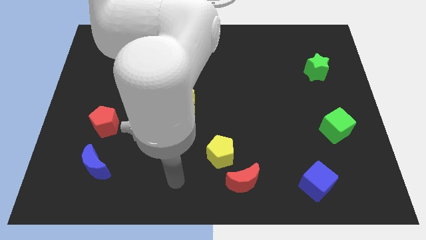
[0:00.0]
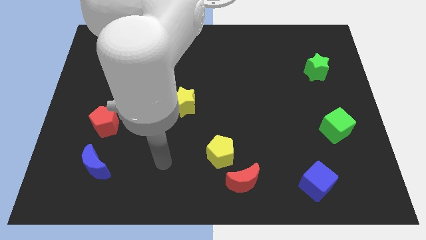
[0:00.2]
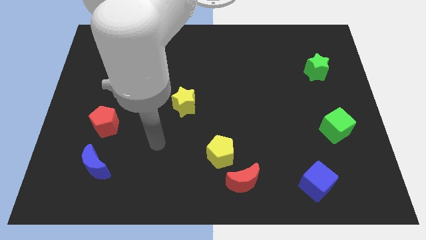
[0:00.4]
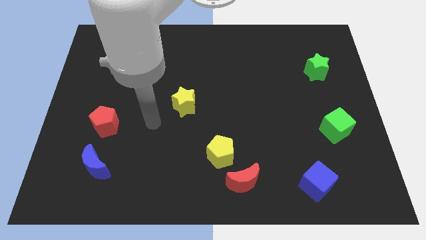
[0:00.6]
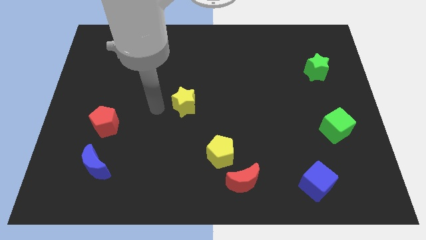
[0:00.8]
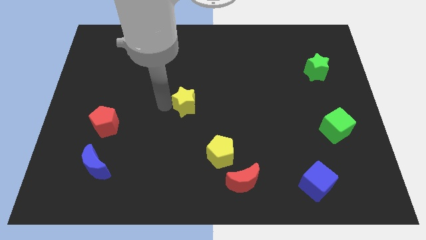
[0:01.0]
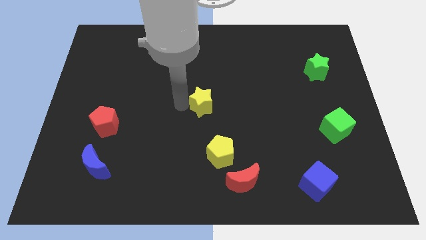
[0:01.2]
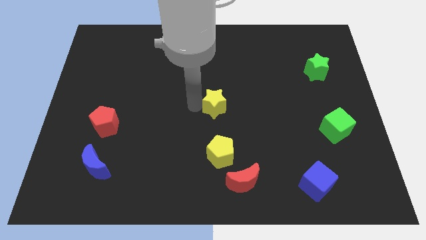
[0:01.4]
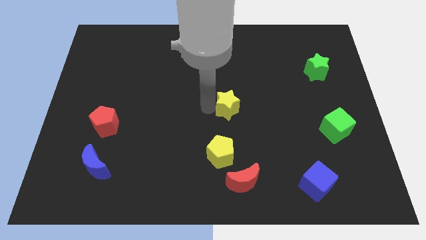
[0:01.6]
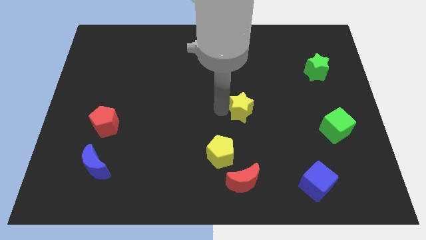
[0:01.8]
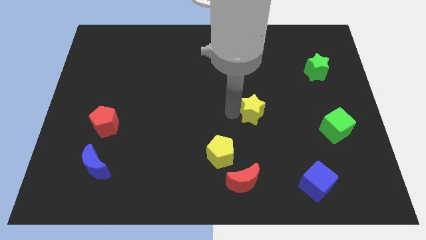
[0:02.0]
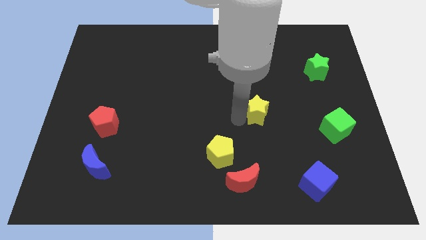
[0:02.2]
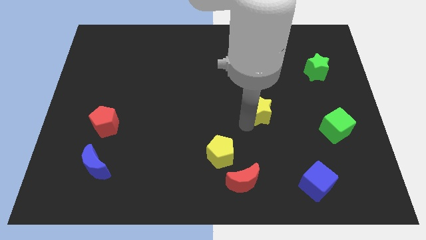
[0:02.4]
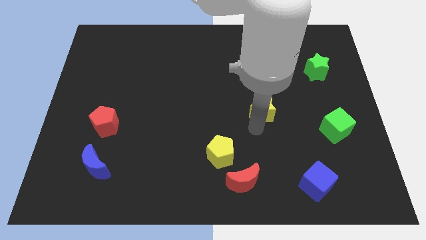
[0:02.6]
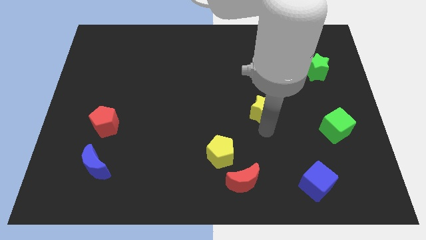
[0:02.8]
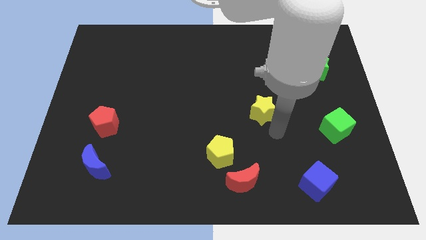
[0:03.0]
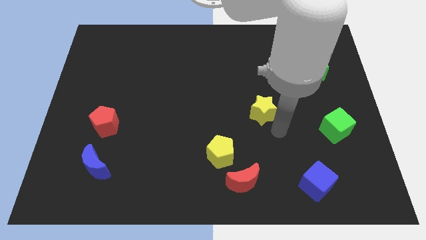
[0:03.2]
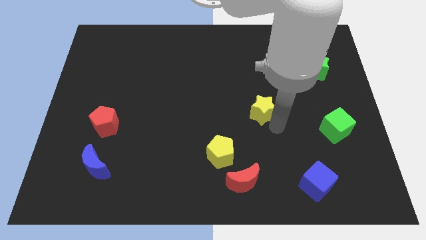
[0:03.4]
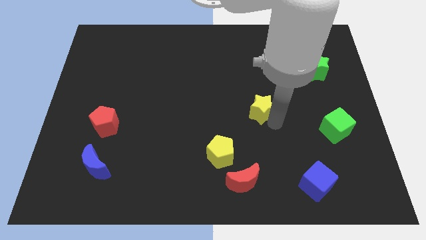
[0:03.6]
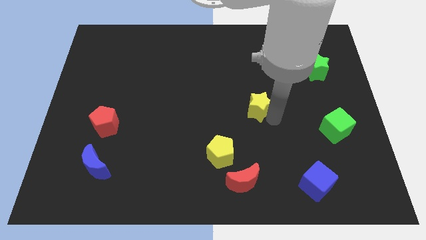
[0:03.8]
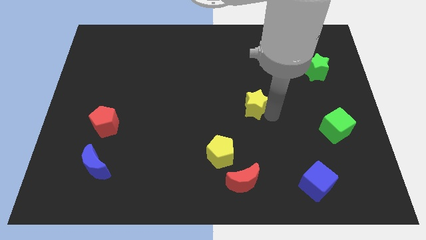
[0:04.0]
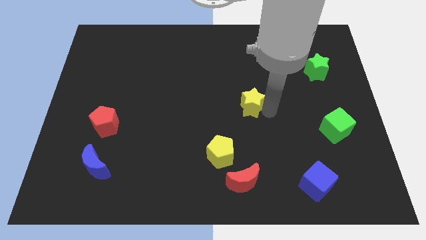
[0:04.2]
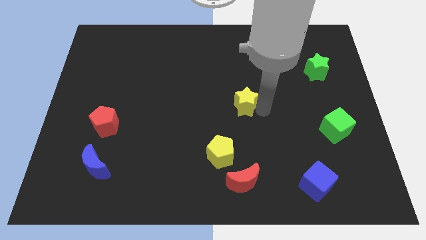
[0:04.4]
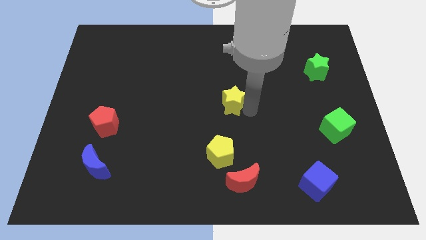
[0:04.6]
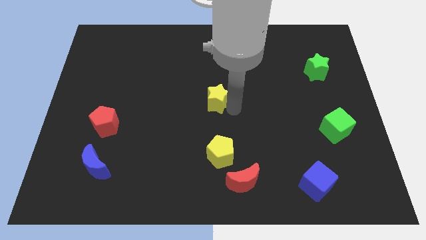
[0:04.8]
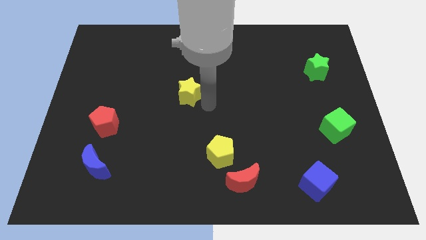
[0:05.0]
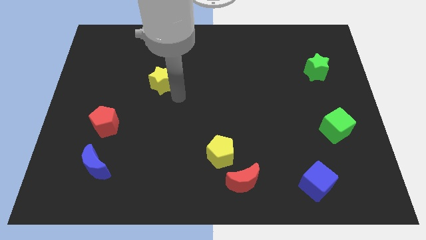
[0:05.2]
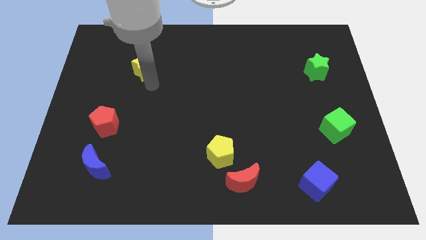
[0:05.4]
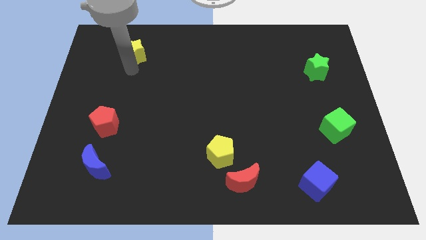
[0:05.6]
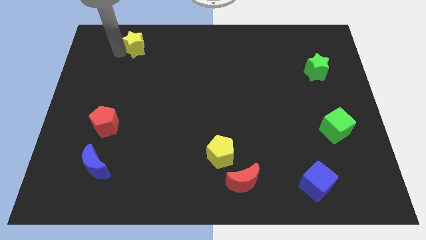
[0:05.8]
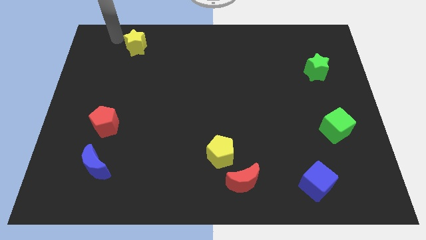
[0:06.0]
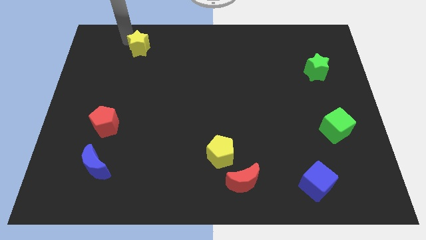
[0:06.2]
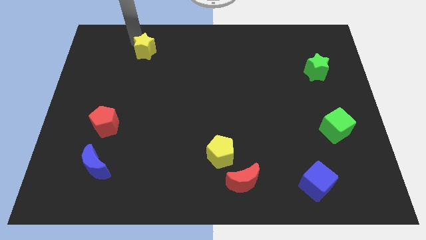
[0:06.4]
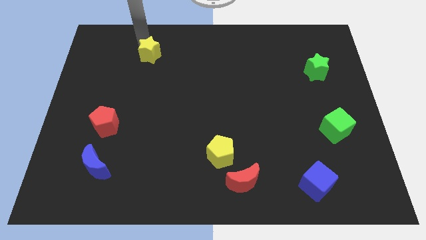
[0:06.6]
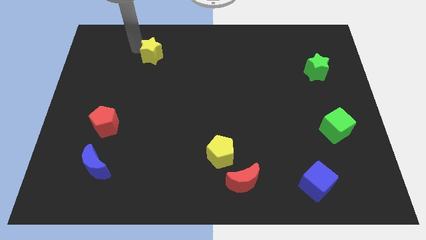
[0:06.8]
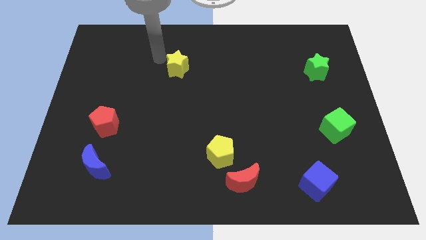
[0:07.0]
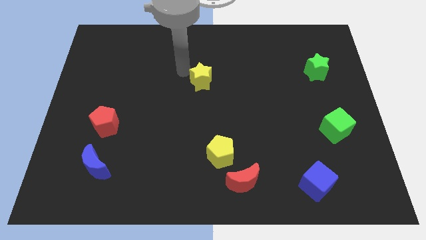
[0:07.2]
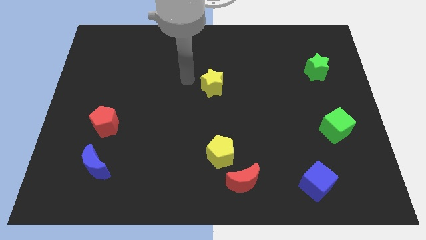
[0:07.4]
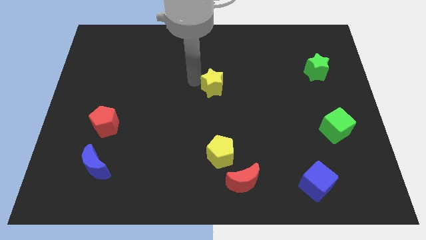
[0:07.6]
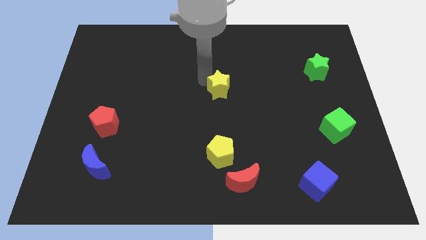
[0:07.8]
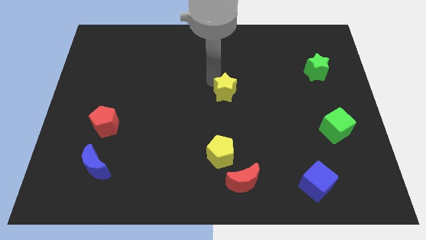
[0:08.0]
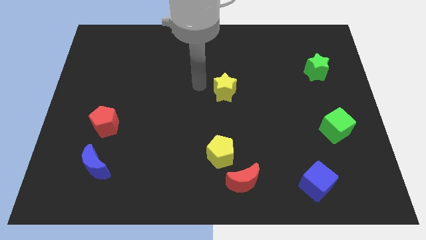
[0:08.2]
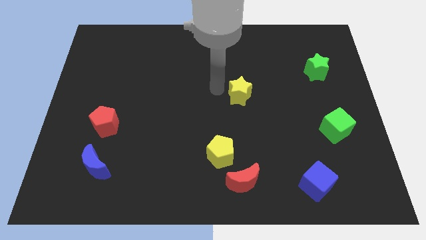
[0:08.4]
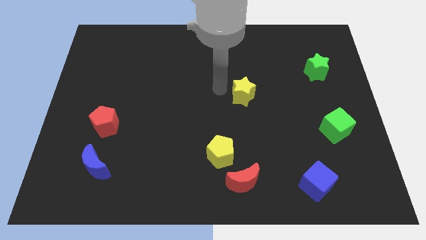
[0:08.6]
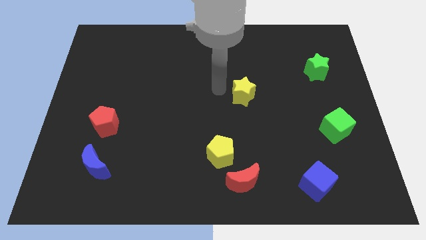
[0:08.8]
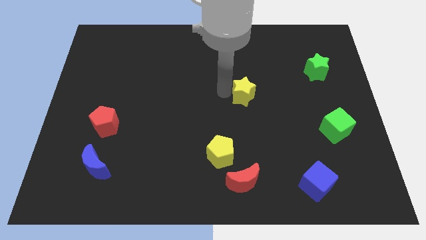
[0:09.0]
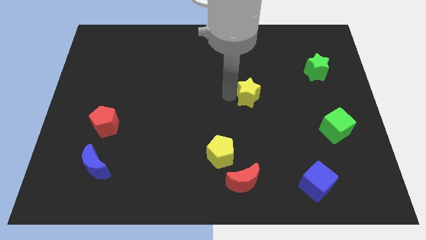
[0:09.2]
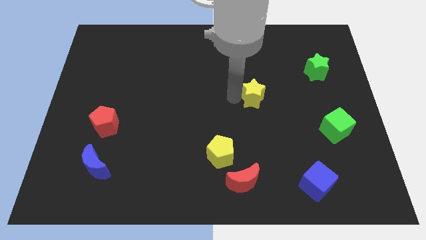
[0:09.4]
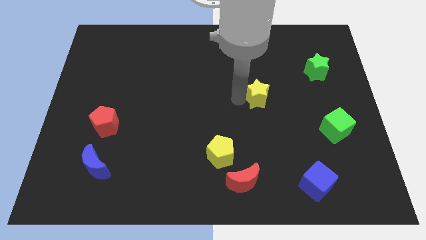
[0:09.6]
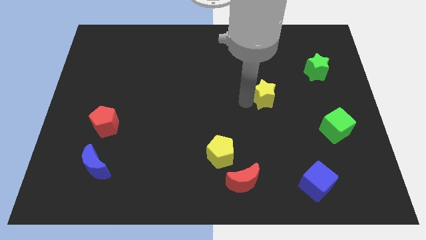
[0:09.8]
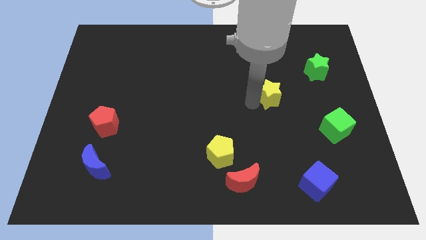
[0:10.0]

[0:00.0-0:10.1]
push the yellow star to the right

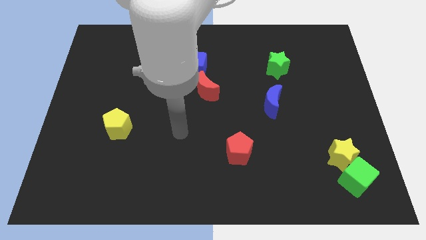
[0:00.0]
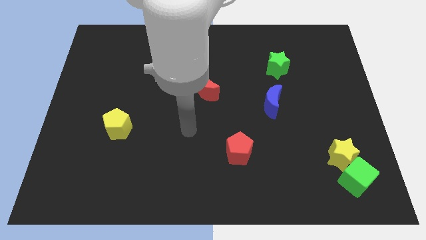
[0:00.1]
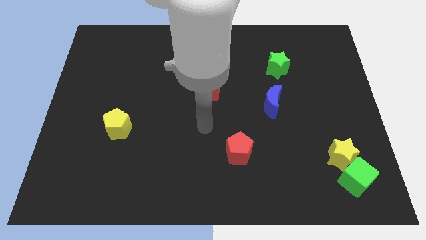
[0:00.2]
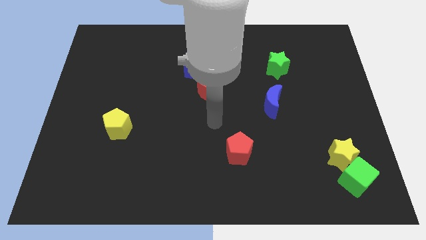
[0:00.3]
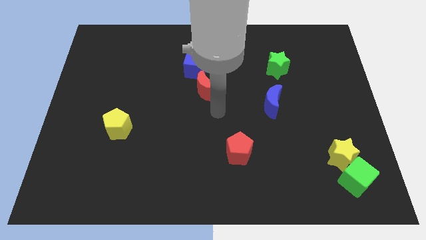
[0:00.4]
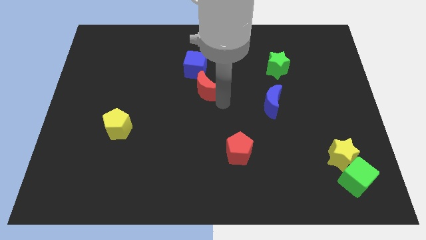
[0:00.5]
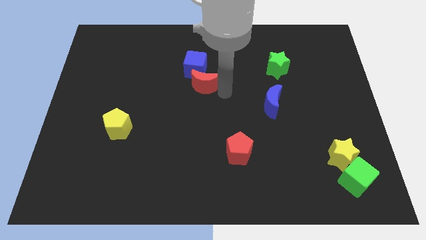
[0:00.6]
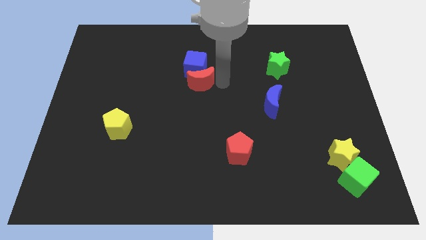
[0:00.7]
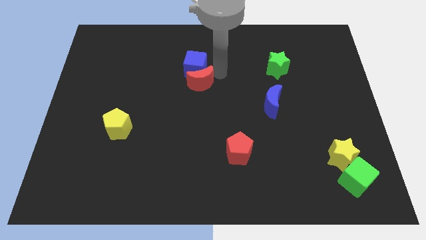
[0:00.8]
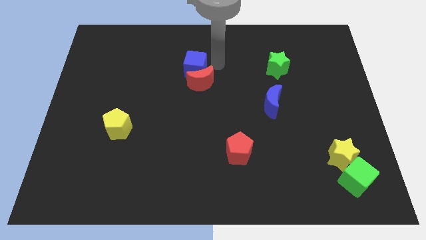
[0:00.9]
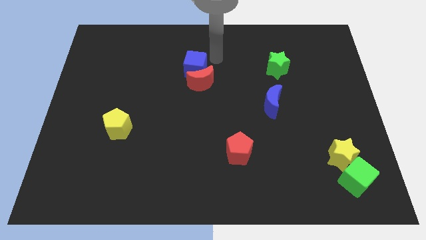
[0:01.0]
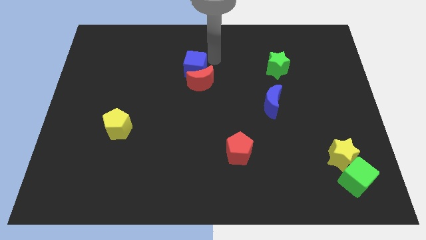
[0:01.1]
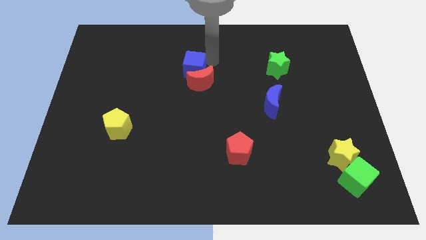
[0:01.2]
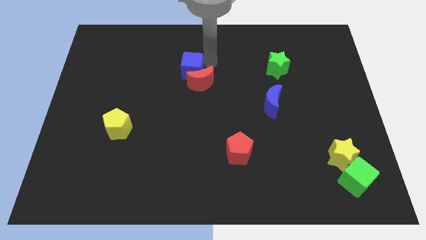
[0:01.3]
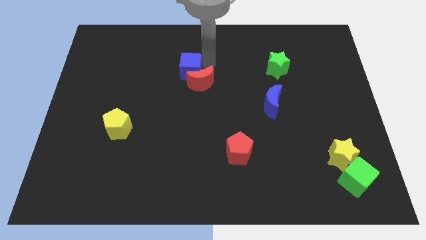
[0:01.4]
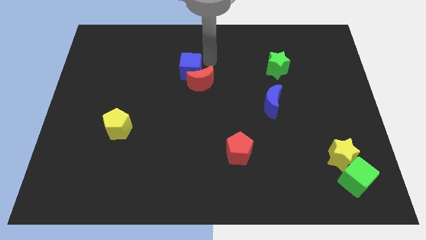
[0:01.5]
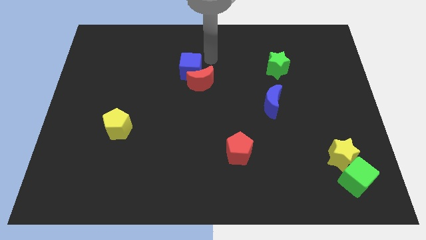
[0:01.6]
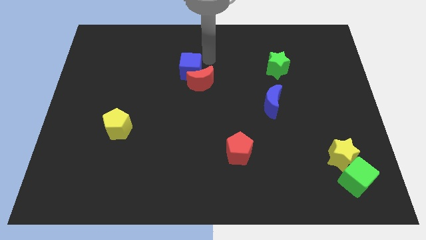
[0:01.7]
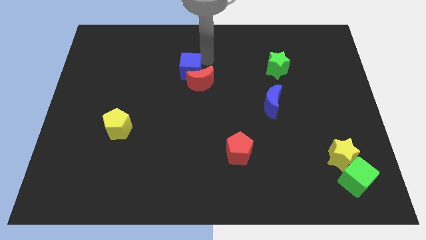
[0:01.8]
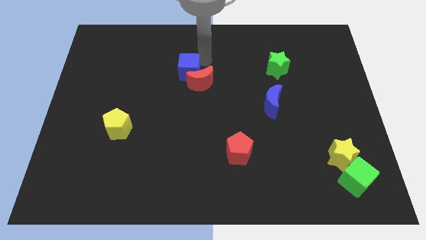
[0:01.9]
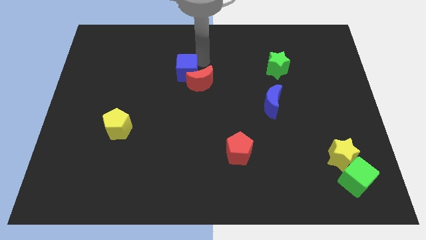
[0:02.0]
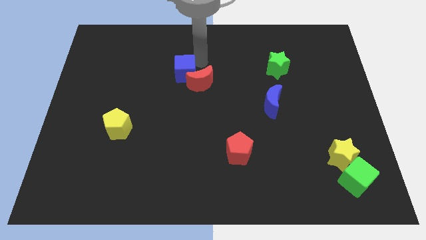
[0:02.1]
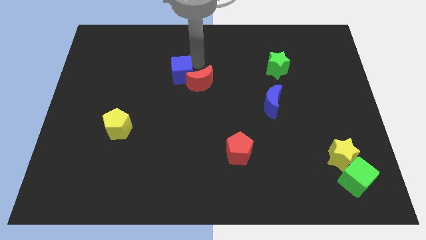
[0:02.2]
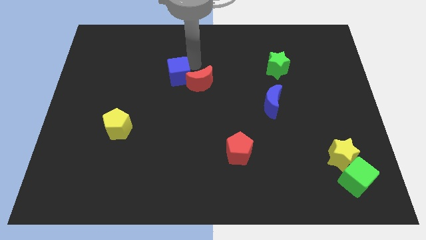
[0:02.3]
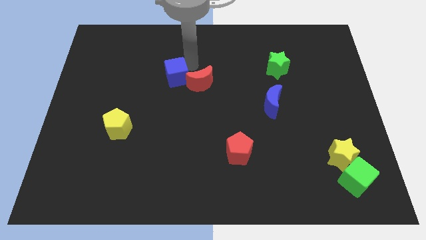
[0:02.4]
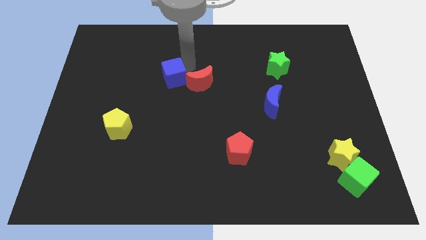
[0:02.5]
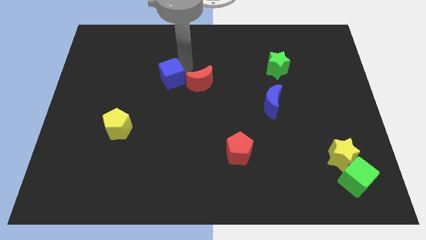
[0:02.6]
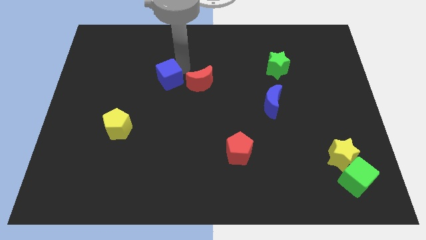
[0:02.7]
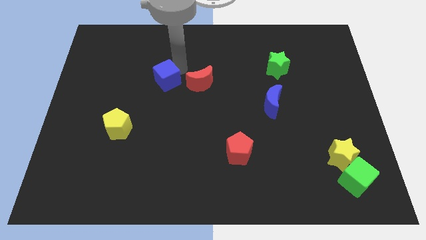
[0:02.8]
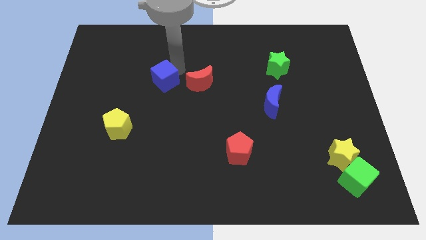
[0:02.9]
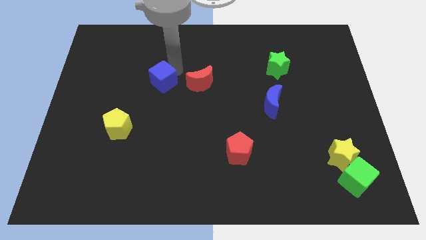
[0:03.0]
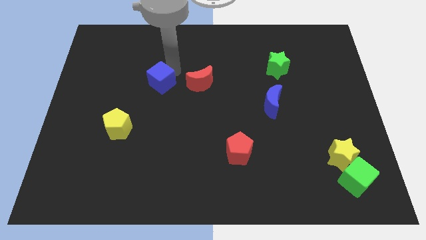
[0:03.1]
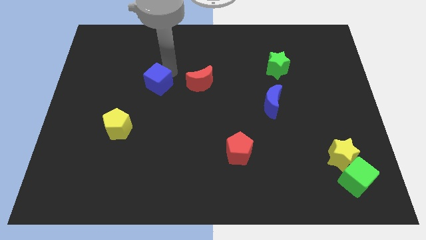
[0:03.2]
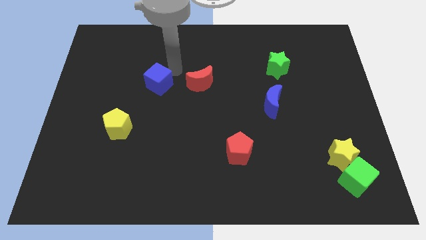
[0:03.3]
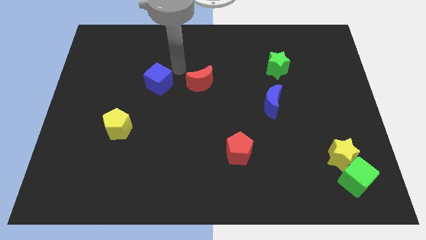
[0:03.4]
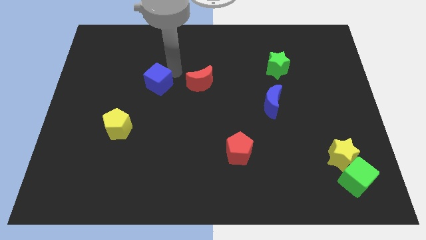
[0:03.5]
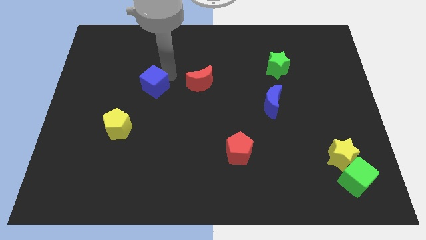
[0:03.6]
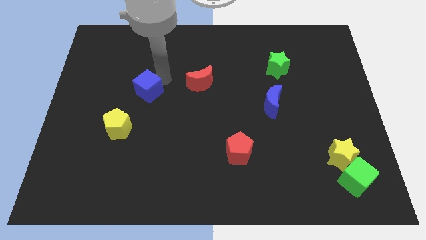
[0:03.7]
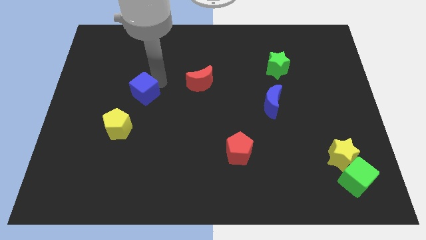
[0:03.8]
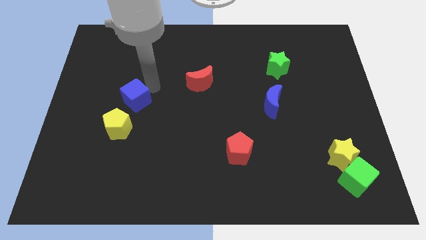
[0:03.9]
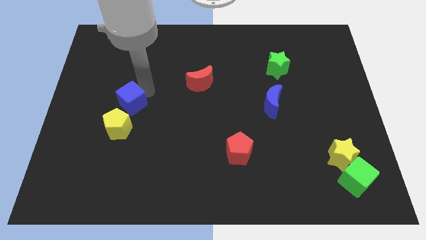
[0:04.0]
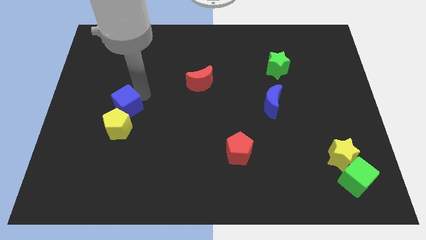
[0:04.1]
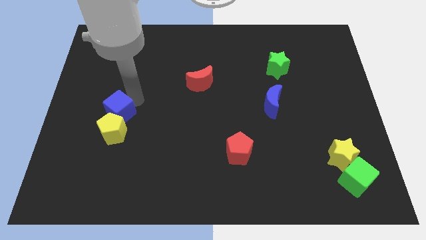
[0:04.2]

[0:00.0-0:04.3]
slide the blue cube diagonally downwards and left
